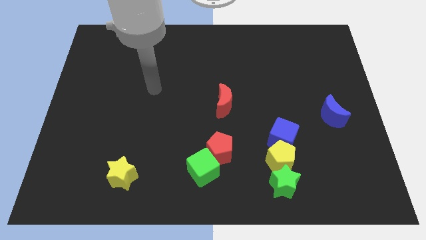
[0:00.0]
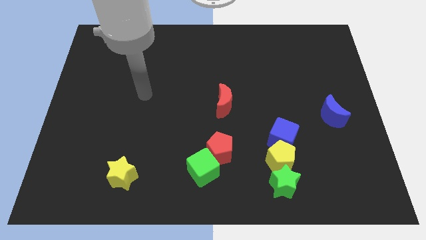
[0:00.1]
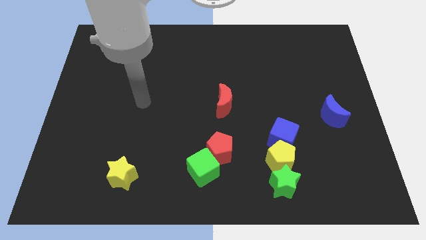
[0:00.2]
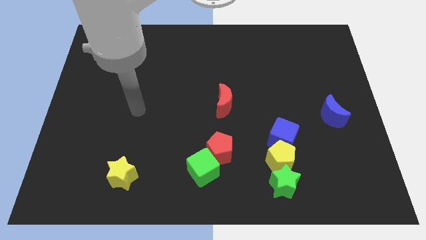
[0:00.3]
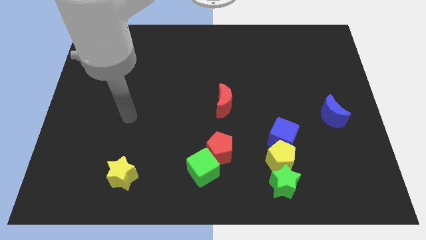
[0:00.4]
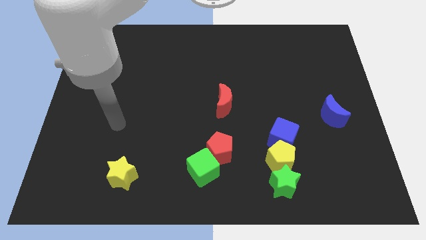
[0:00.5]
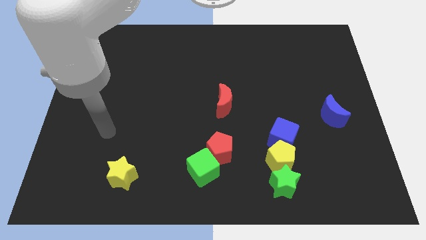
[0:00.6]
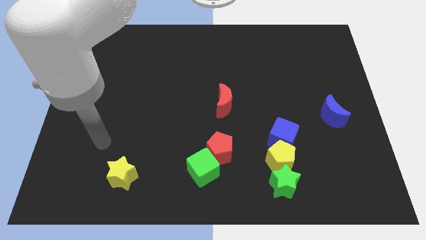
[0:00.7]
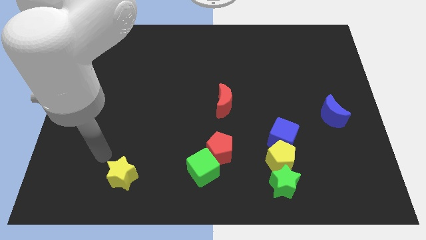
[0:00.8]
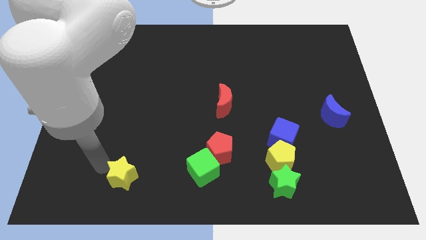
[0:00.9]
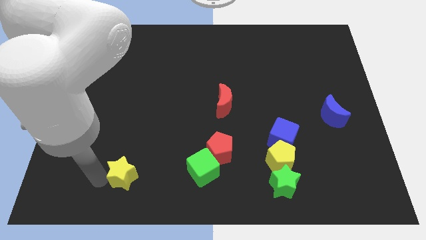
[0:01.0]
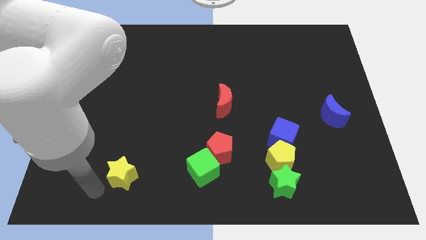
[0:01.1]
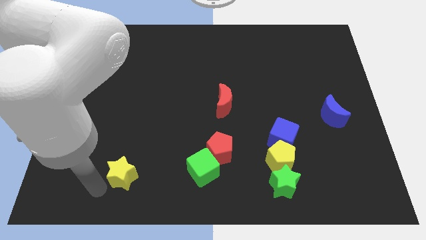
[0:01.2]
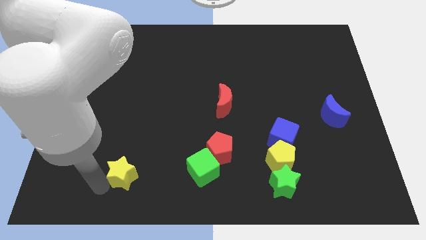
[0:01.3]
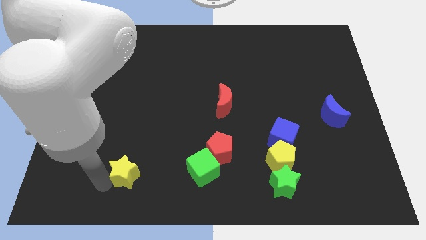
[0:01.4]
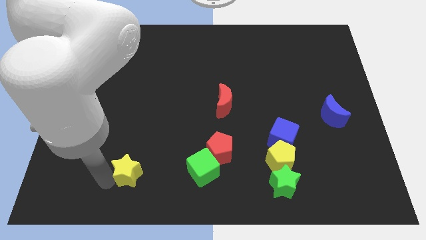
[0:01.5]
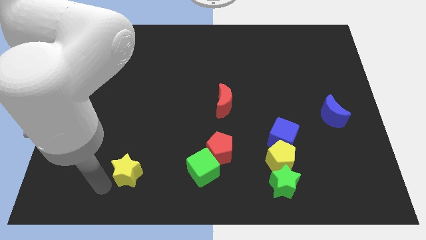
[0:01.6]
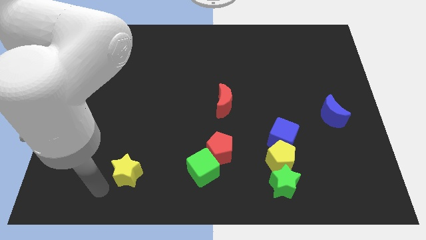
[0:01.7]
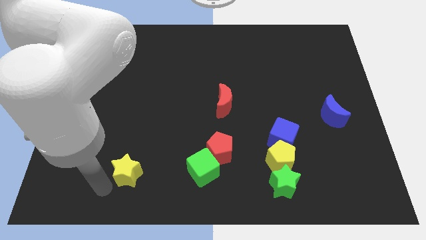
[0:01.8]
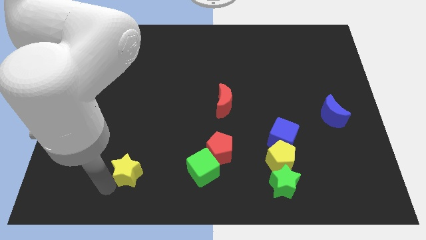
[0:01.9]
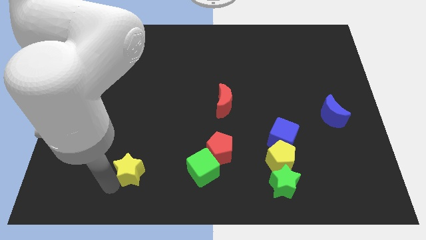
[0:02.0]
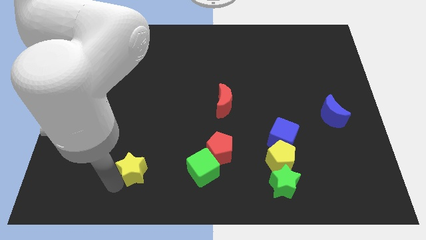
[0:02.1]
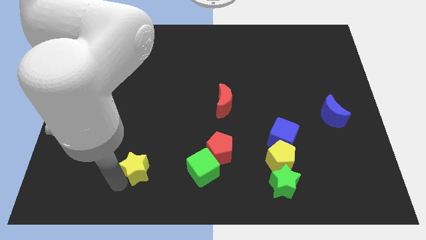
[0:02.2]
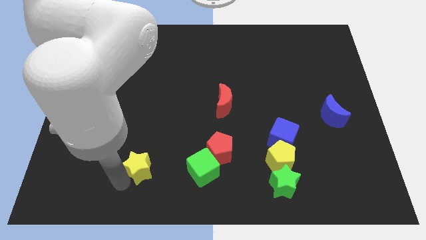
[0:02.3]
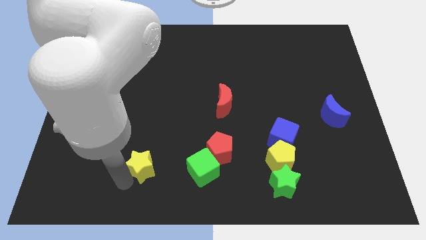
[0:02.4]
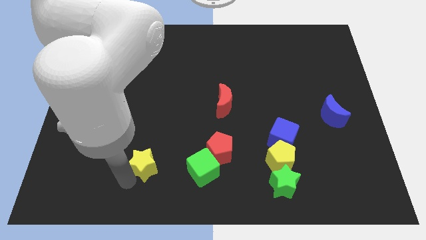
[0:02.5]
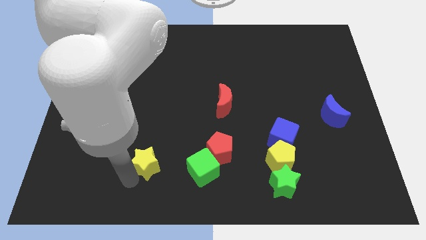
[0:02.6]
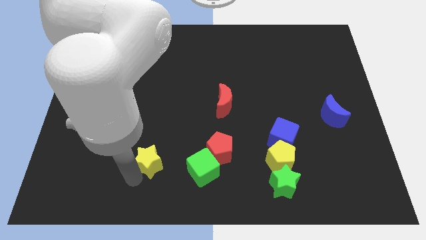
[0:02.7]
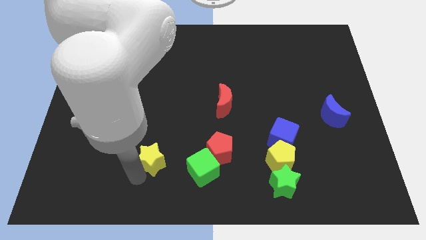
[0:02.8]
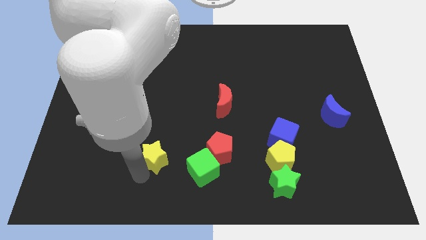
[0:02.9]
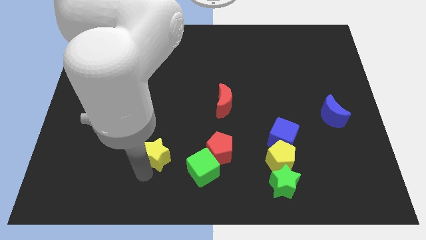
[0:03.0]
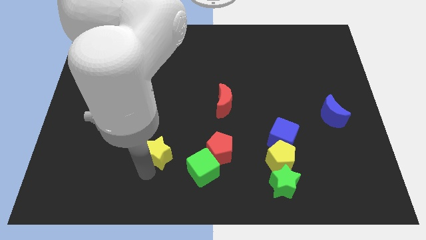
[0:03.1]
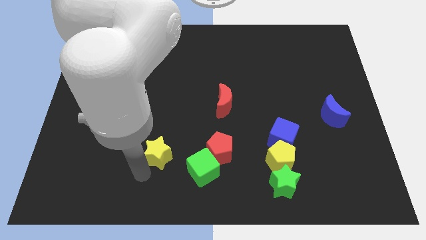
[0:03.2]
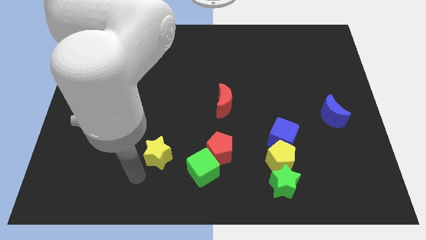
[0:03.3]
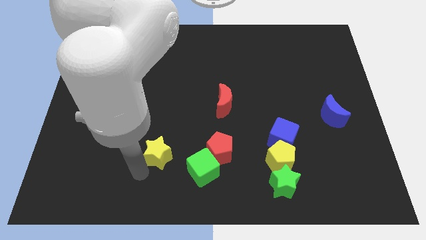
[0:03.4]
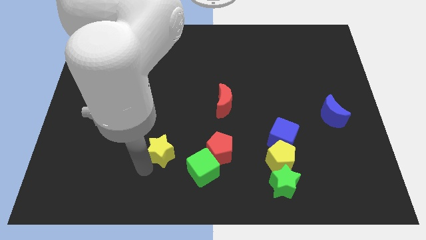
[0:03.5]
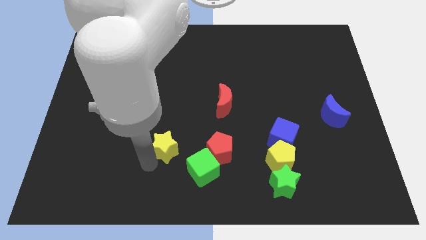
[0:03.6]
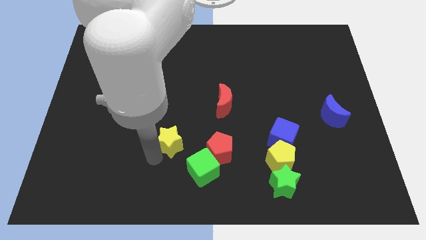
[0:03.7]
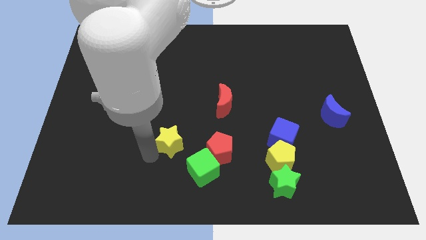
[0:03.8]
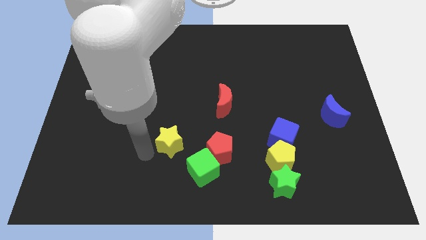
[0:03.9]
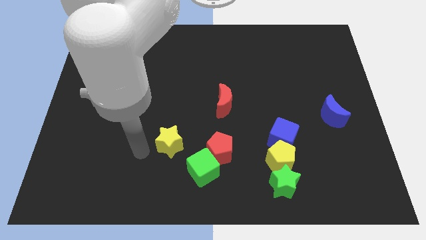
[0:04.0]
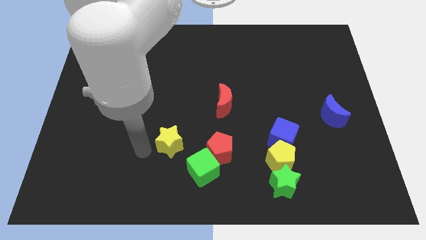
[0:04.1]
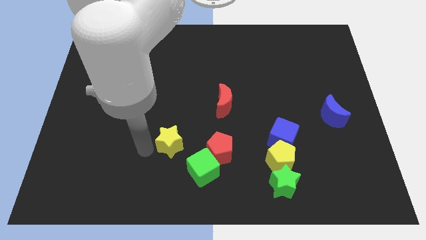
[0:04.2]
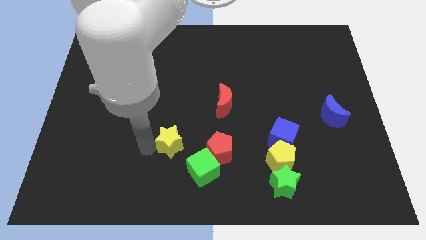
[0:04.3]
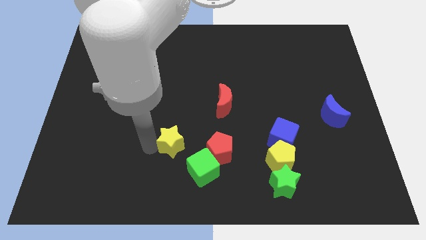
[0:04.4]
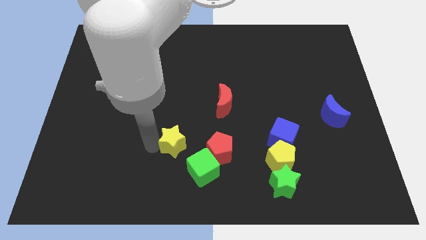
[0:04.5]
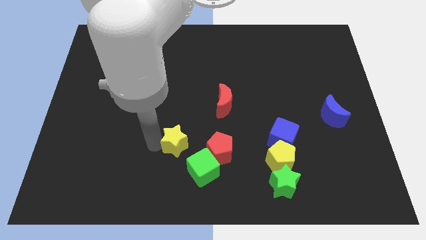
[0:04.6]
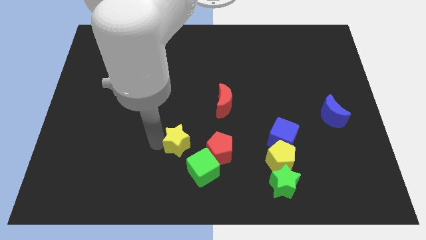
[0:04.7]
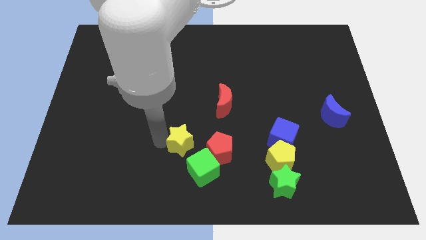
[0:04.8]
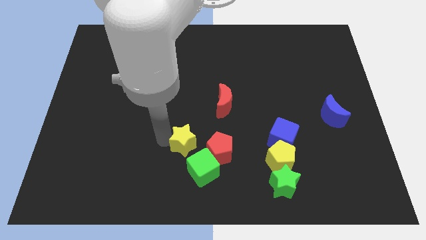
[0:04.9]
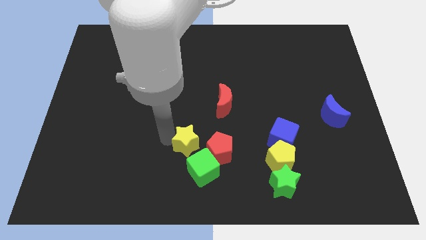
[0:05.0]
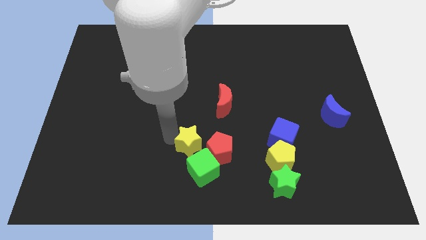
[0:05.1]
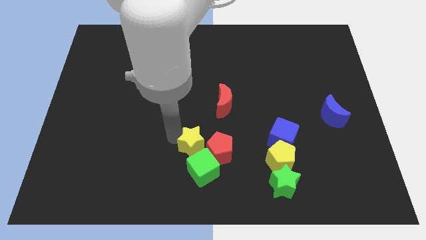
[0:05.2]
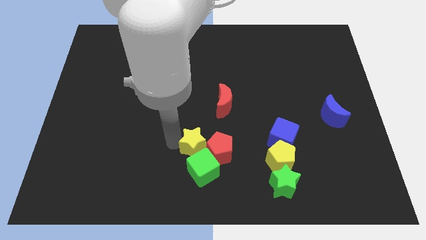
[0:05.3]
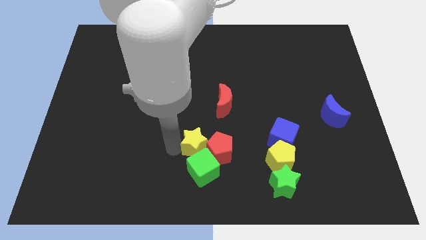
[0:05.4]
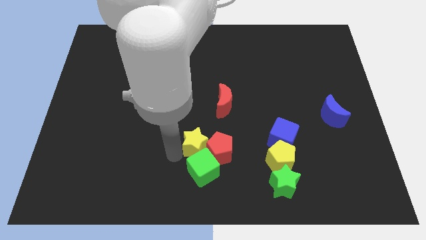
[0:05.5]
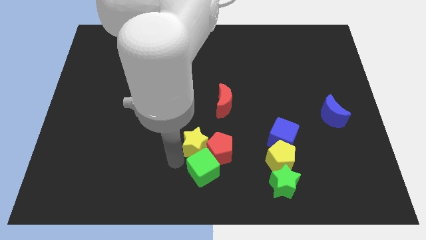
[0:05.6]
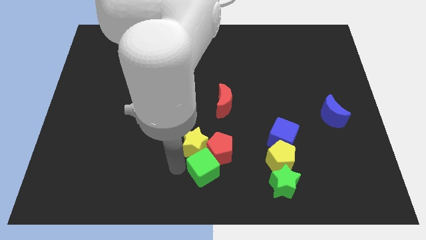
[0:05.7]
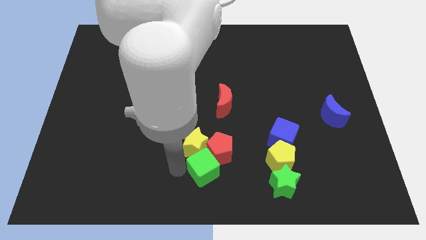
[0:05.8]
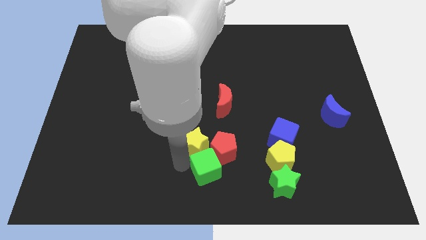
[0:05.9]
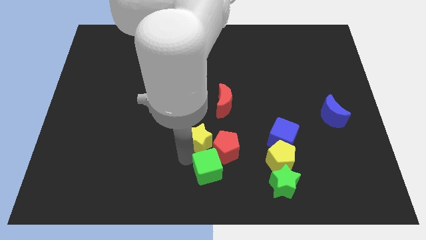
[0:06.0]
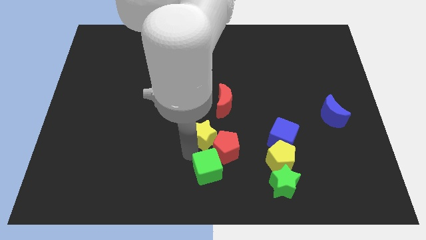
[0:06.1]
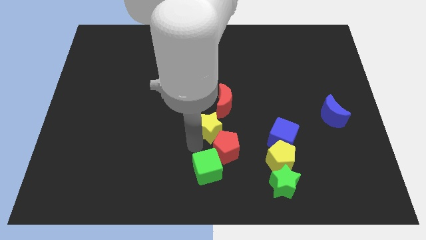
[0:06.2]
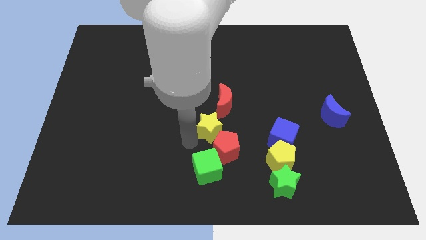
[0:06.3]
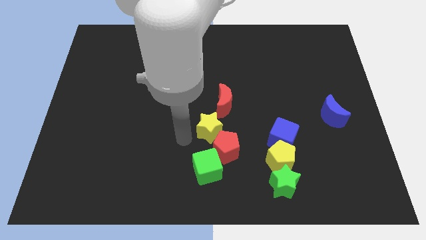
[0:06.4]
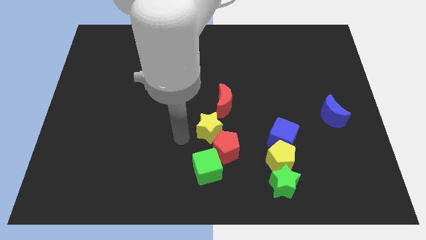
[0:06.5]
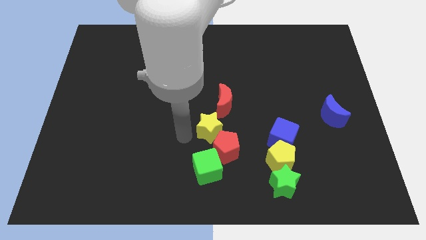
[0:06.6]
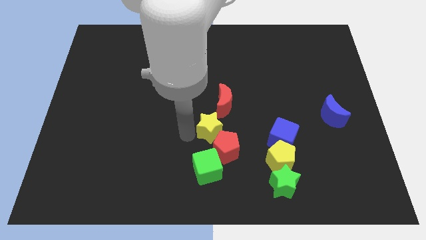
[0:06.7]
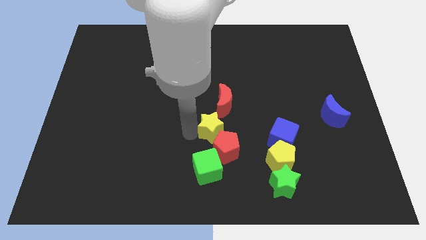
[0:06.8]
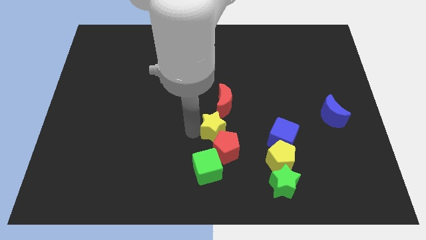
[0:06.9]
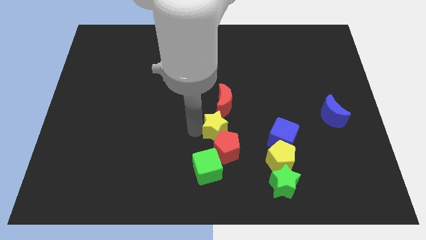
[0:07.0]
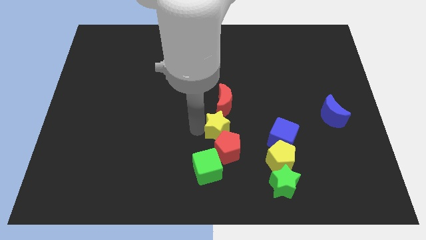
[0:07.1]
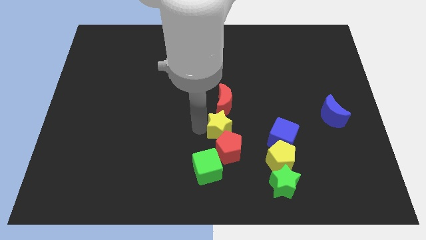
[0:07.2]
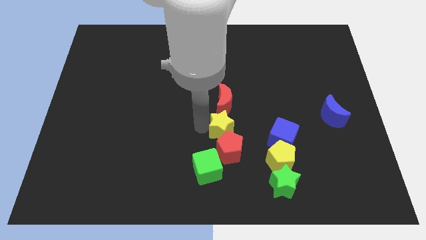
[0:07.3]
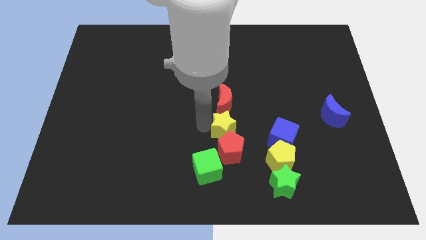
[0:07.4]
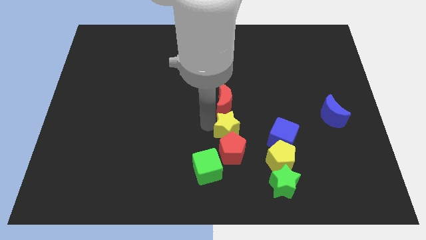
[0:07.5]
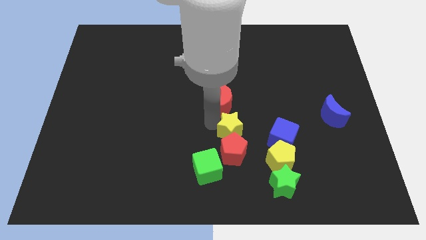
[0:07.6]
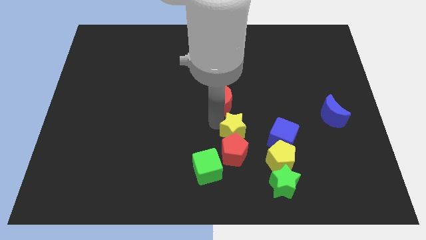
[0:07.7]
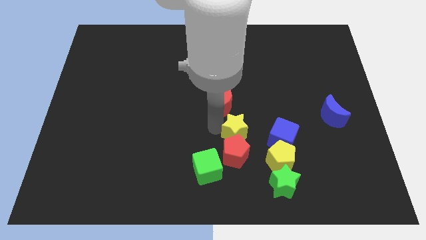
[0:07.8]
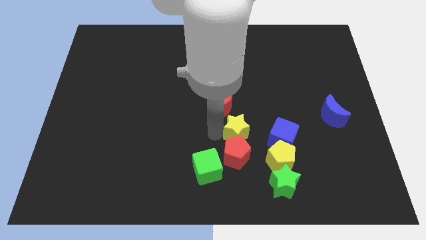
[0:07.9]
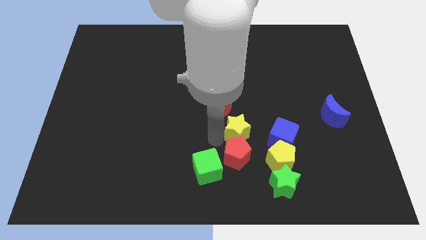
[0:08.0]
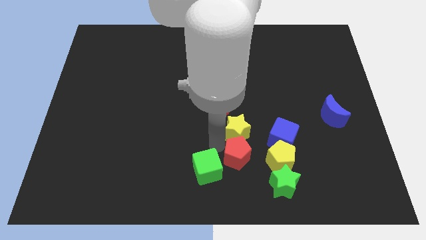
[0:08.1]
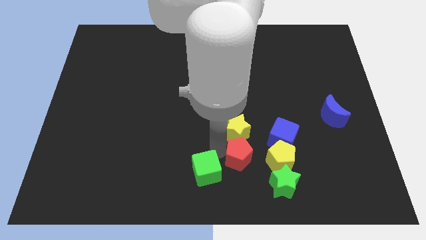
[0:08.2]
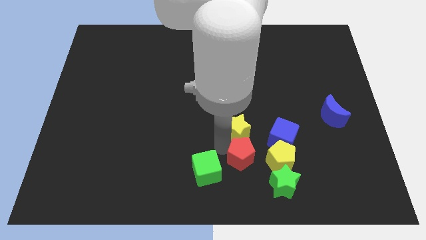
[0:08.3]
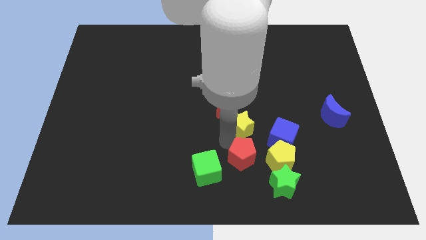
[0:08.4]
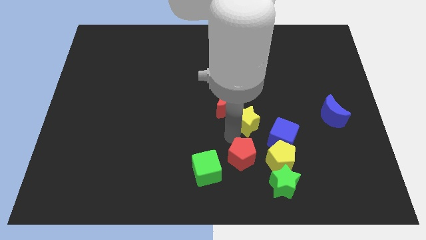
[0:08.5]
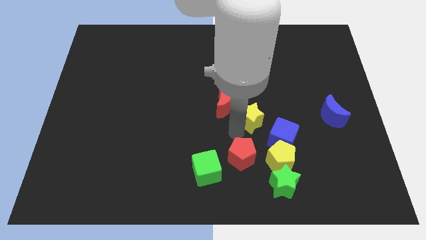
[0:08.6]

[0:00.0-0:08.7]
put the yellow star right of the red moon
